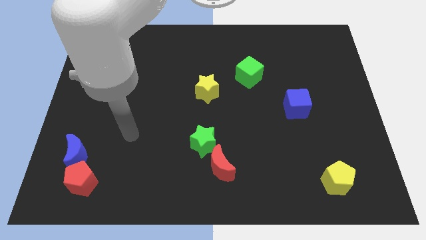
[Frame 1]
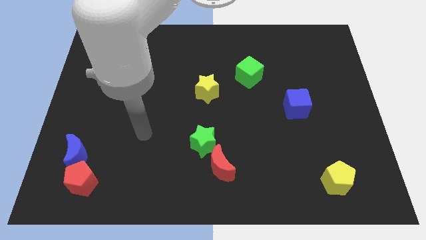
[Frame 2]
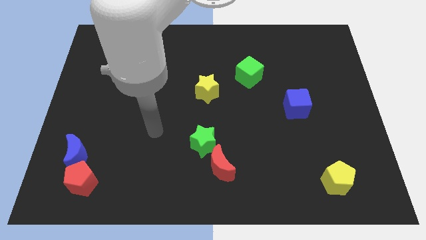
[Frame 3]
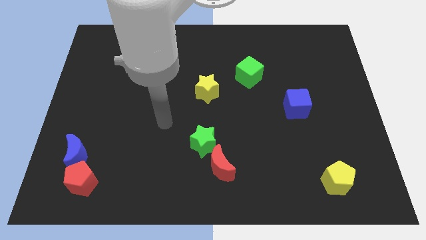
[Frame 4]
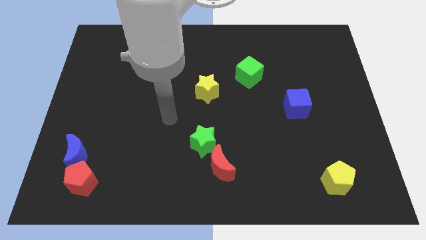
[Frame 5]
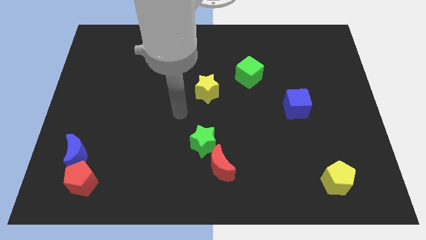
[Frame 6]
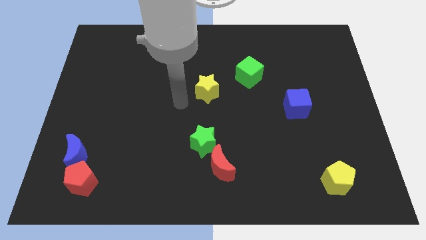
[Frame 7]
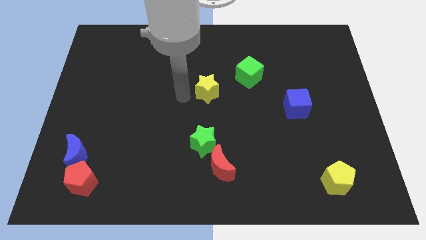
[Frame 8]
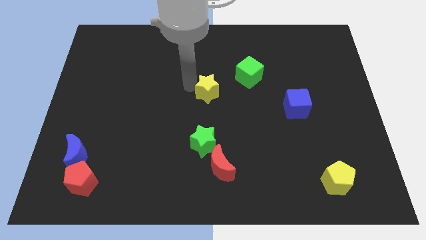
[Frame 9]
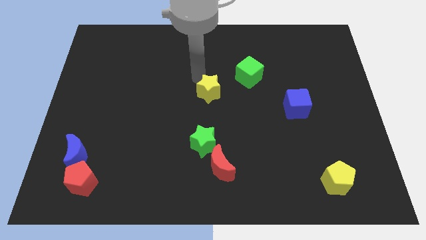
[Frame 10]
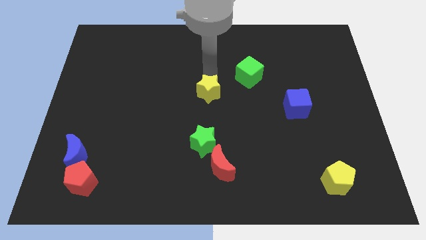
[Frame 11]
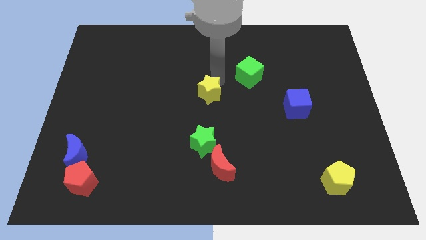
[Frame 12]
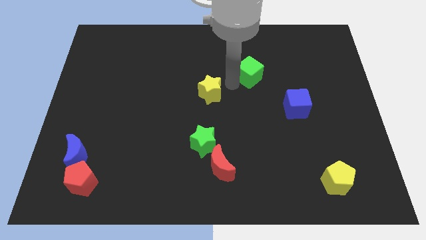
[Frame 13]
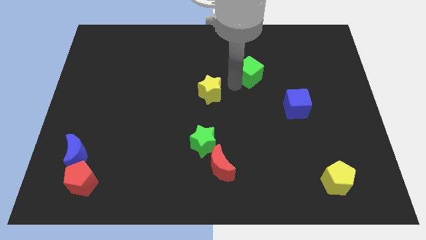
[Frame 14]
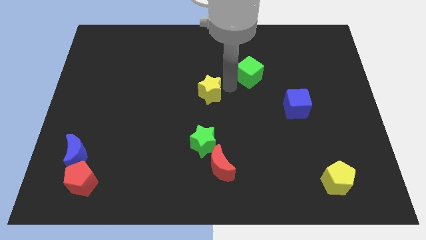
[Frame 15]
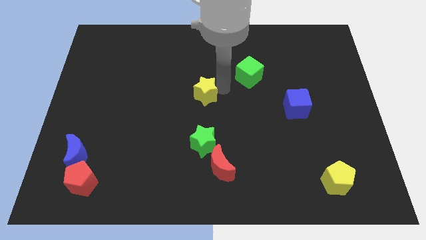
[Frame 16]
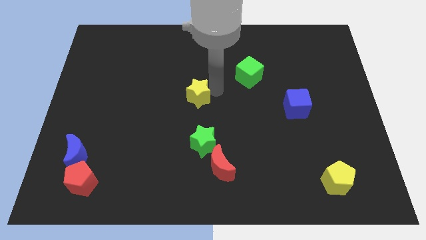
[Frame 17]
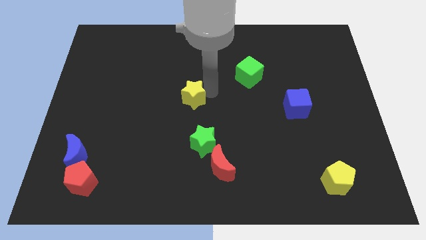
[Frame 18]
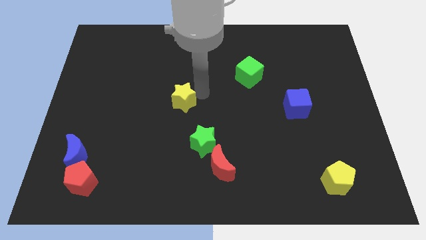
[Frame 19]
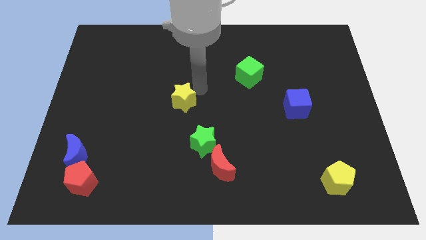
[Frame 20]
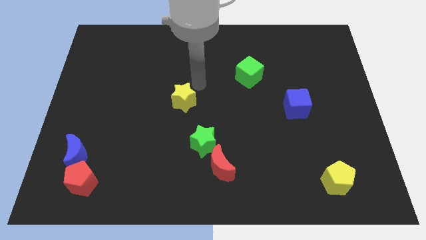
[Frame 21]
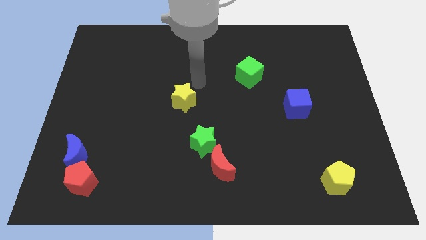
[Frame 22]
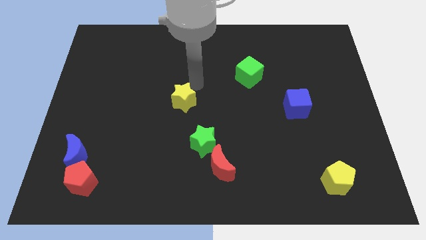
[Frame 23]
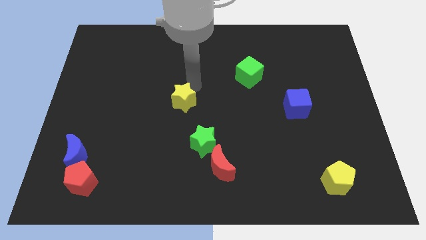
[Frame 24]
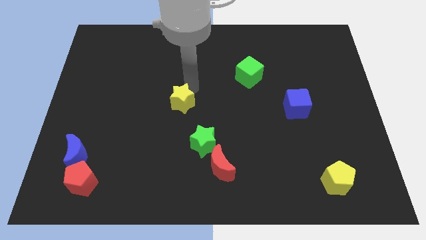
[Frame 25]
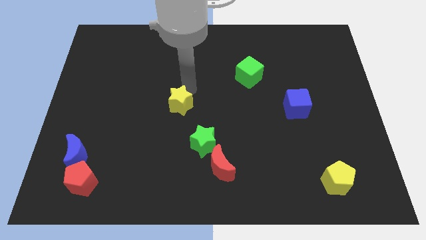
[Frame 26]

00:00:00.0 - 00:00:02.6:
slightly move the yellow star diagonally down and left

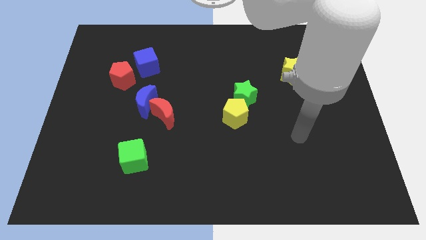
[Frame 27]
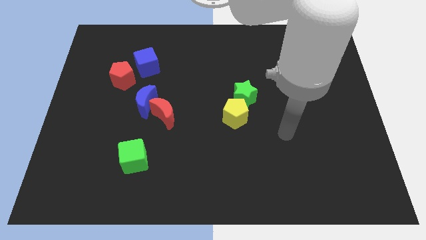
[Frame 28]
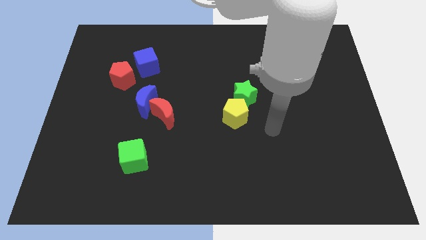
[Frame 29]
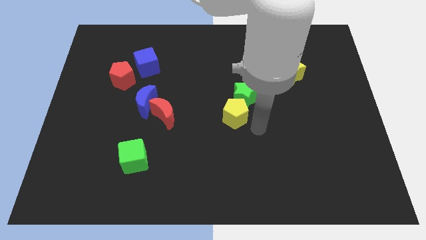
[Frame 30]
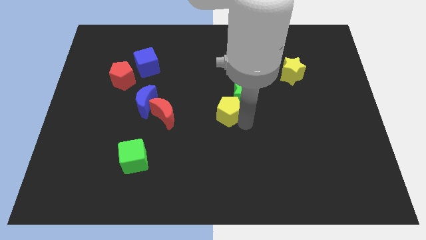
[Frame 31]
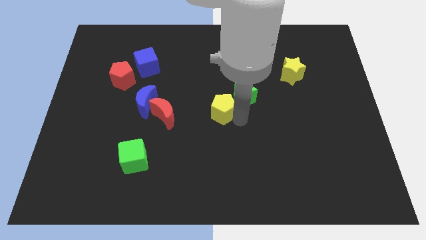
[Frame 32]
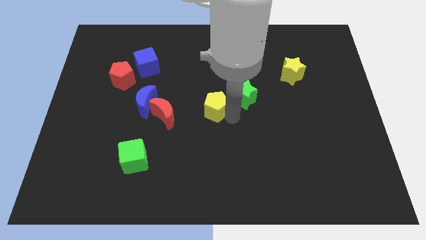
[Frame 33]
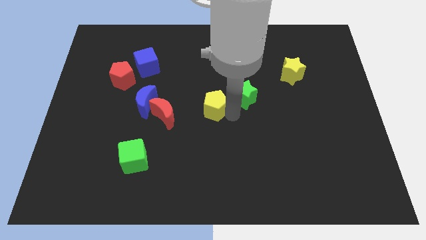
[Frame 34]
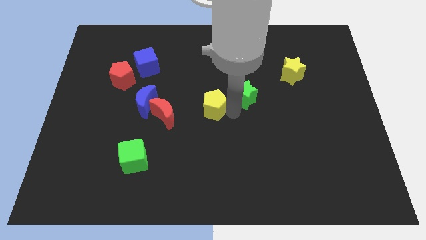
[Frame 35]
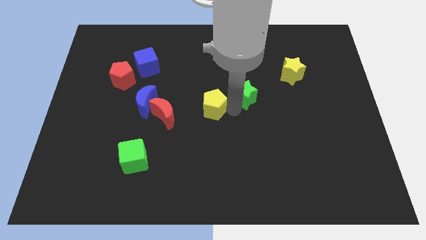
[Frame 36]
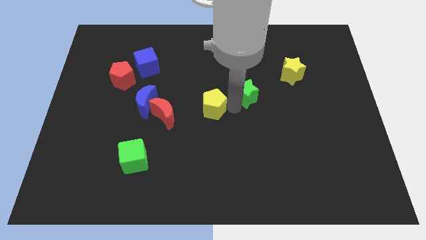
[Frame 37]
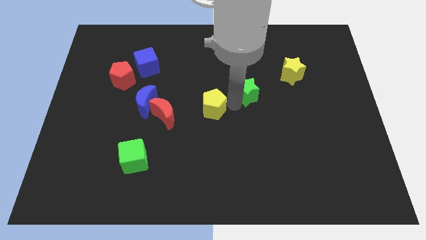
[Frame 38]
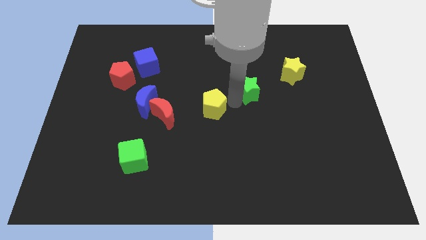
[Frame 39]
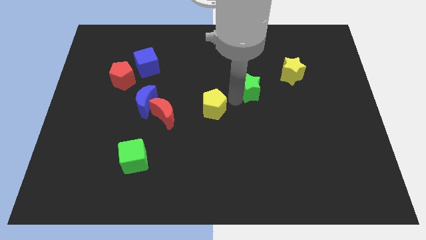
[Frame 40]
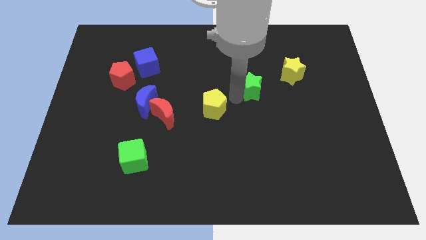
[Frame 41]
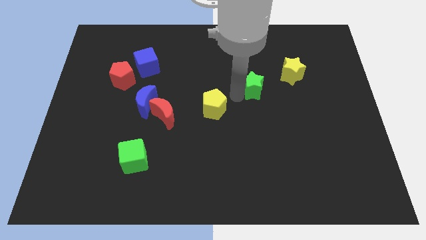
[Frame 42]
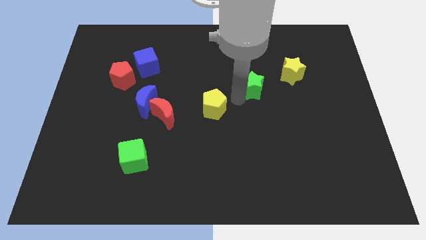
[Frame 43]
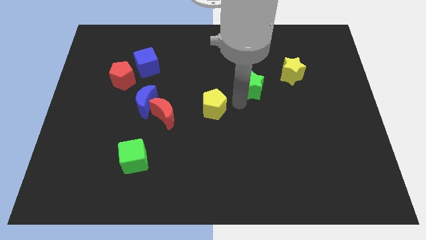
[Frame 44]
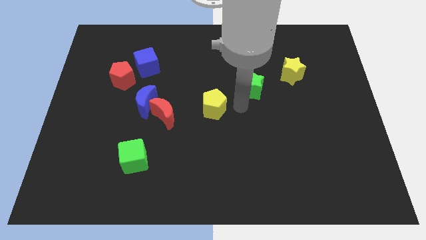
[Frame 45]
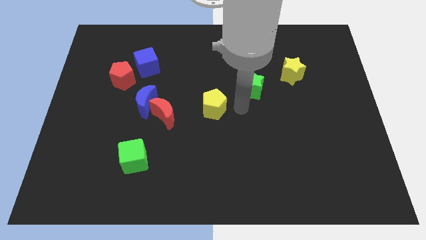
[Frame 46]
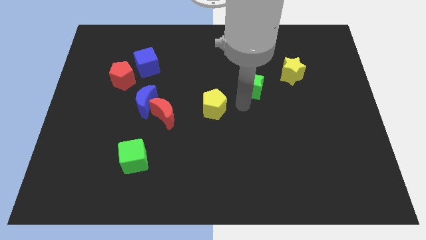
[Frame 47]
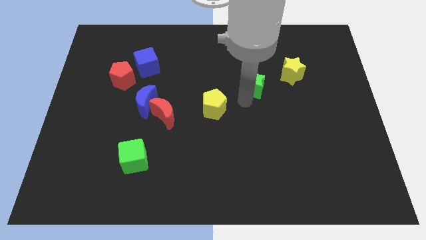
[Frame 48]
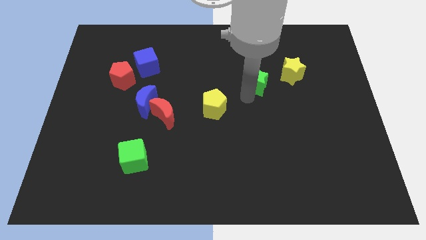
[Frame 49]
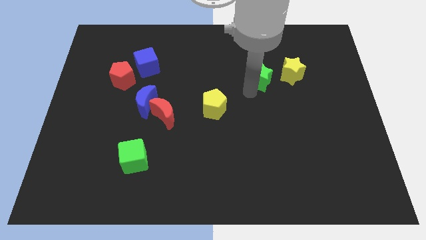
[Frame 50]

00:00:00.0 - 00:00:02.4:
push the green star a little diagonally upwards and to the right

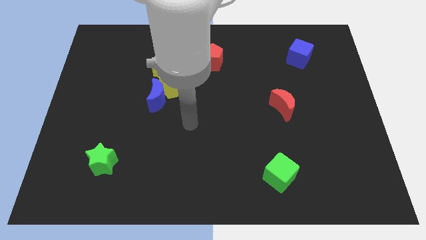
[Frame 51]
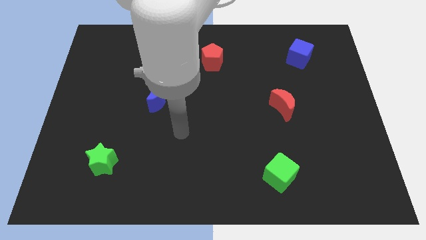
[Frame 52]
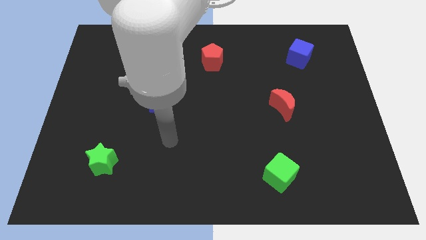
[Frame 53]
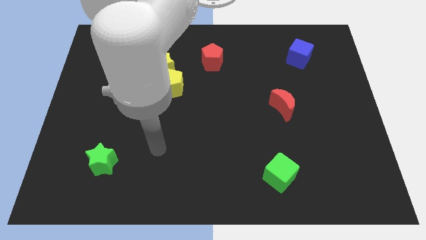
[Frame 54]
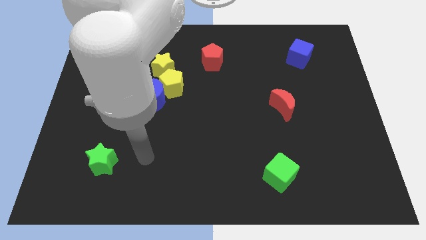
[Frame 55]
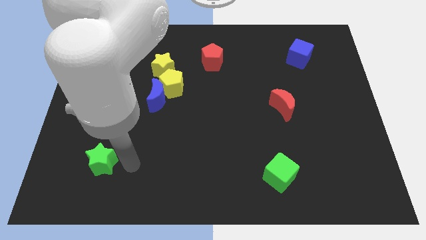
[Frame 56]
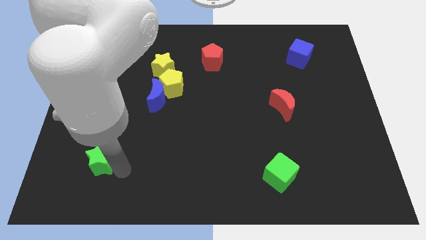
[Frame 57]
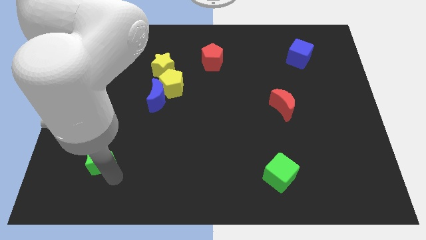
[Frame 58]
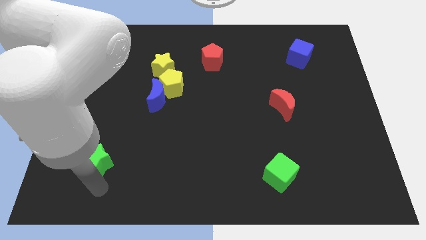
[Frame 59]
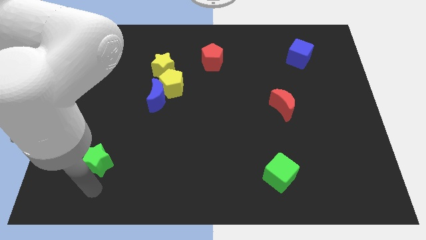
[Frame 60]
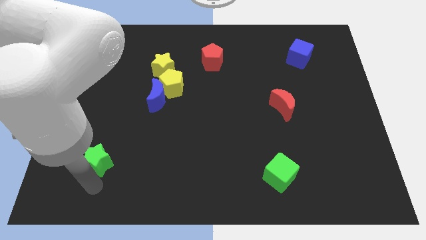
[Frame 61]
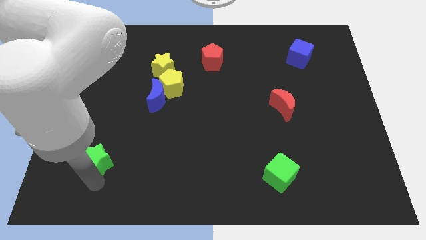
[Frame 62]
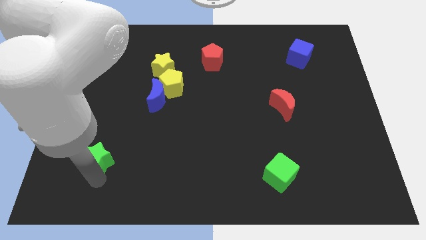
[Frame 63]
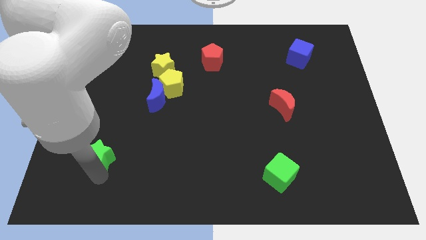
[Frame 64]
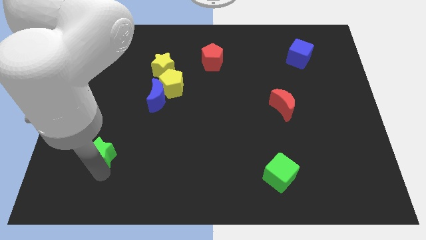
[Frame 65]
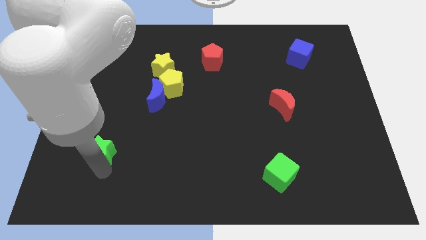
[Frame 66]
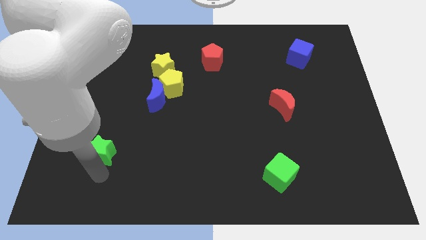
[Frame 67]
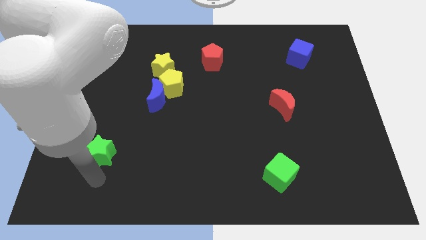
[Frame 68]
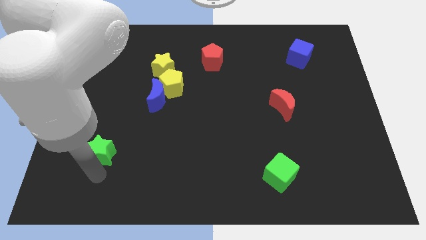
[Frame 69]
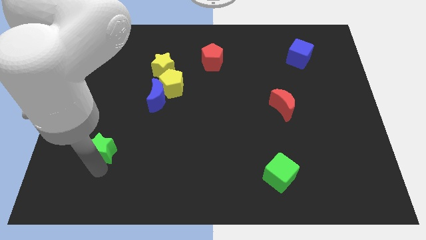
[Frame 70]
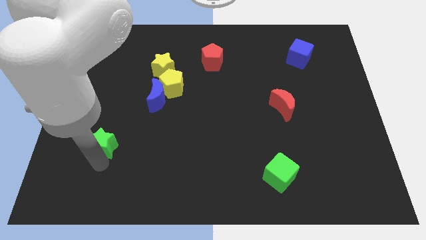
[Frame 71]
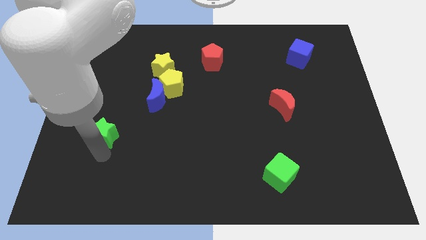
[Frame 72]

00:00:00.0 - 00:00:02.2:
slide the green star upwards slightly

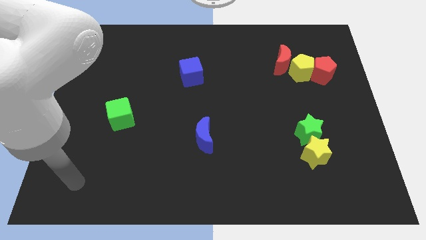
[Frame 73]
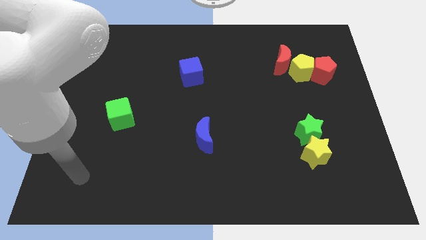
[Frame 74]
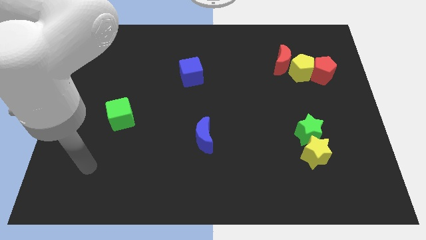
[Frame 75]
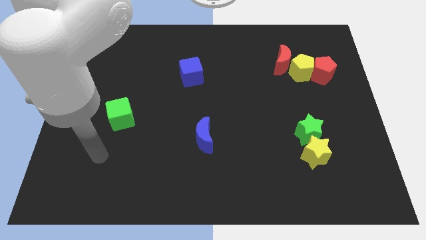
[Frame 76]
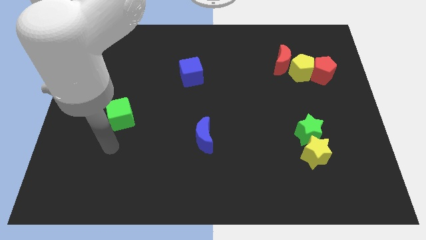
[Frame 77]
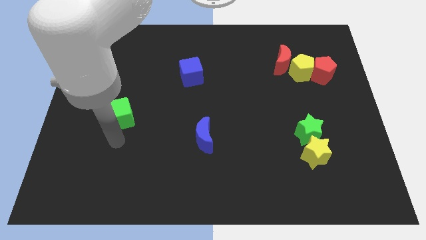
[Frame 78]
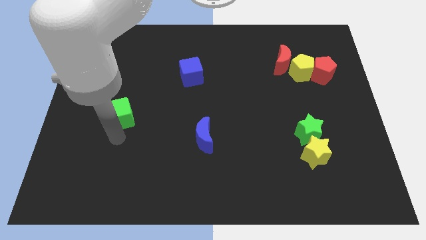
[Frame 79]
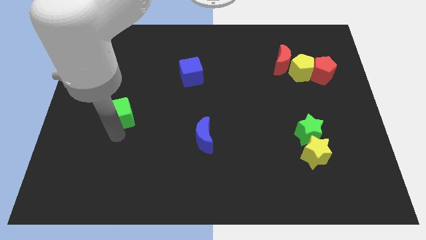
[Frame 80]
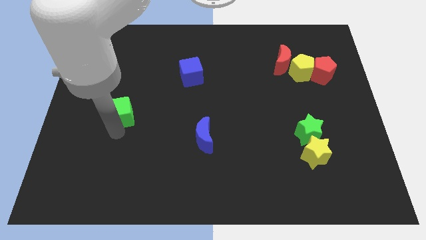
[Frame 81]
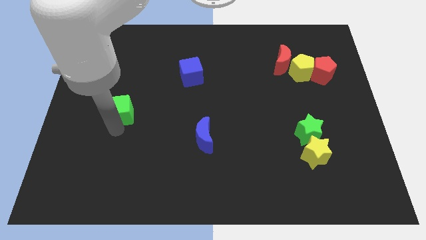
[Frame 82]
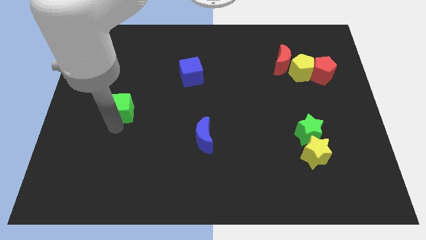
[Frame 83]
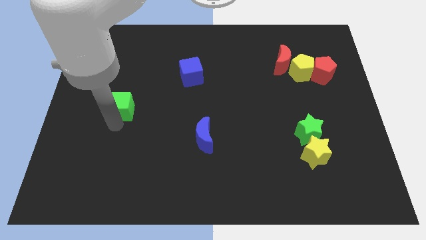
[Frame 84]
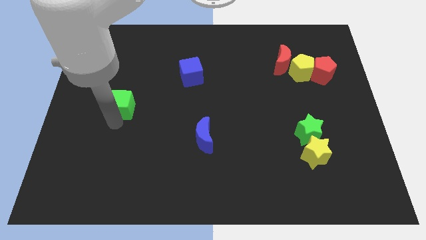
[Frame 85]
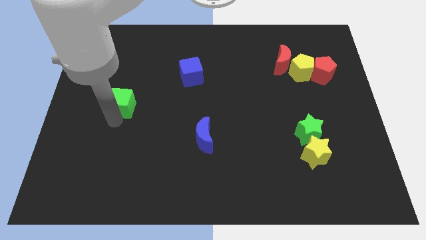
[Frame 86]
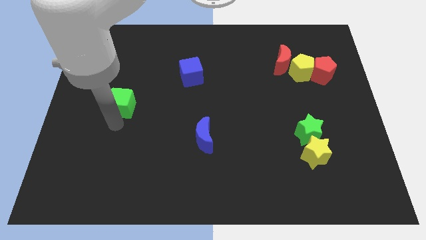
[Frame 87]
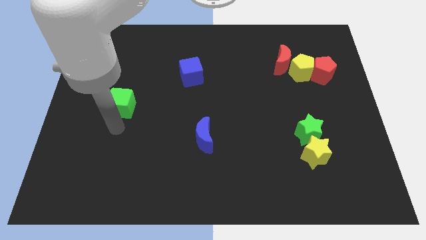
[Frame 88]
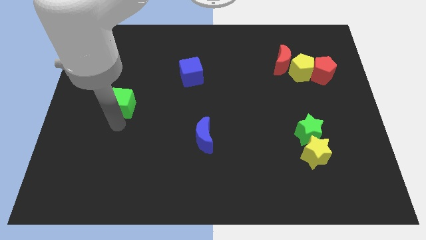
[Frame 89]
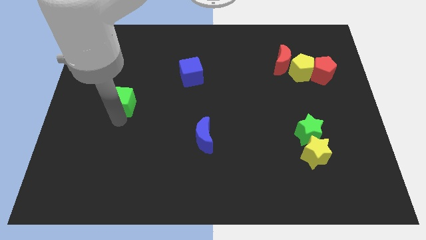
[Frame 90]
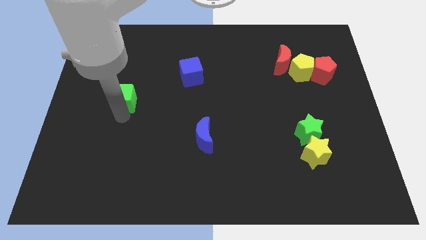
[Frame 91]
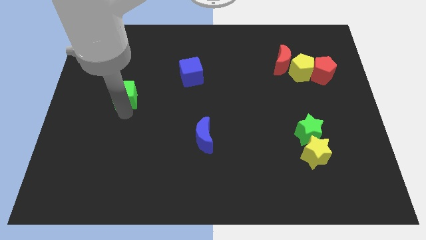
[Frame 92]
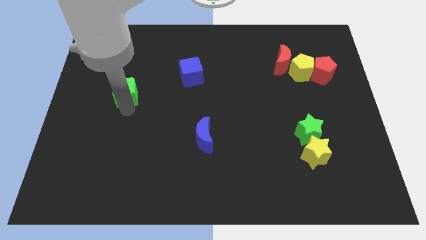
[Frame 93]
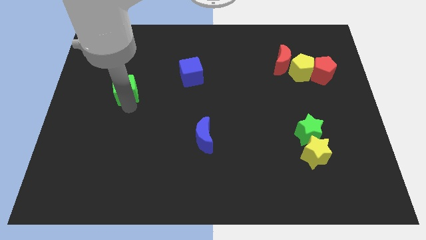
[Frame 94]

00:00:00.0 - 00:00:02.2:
slightly slide the green cube up
